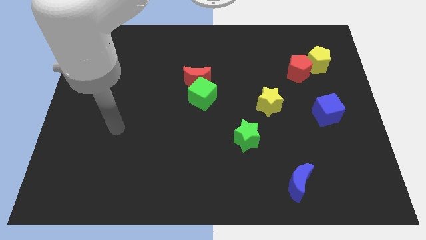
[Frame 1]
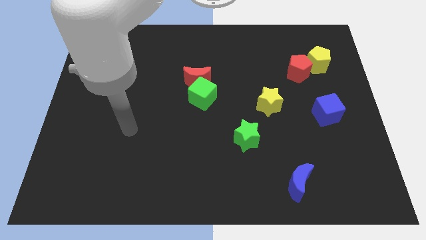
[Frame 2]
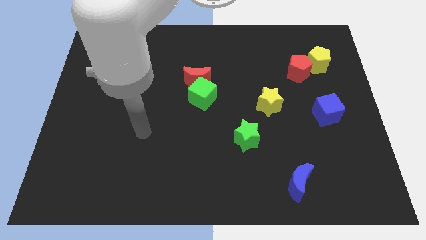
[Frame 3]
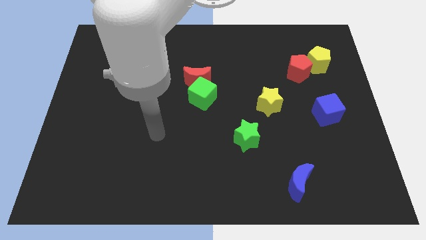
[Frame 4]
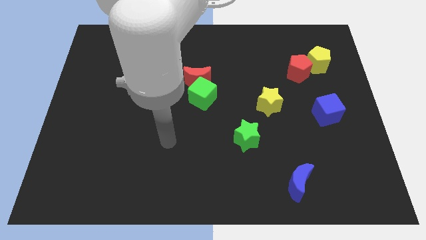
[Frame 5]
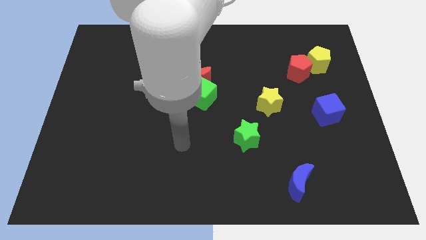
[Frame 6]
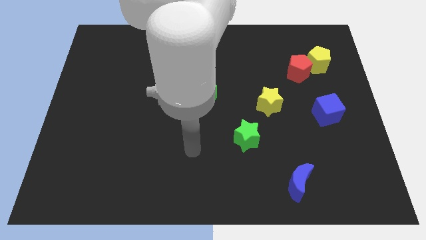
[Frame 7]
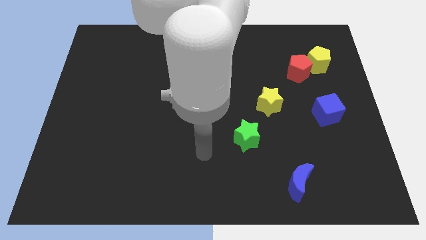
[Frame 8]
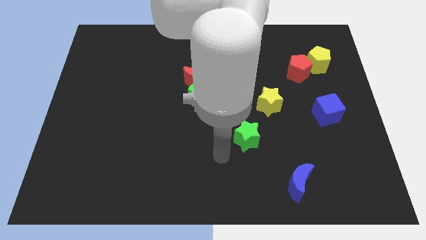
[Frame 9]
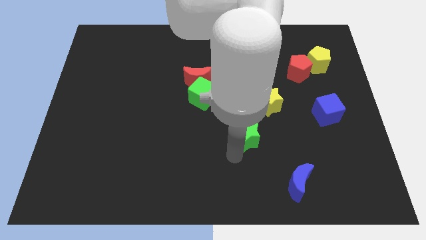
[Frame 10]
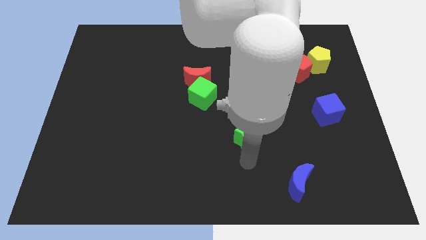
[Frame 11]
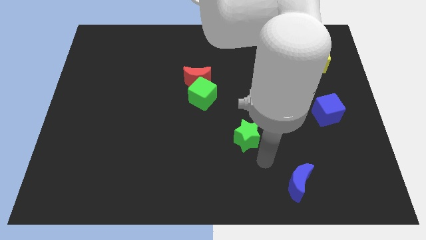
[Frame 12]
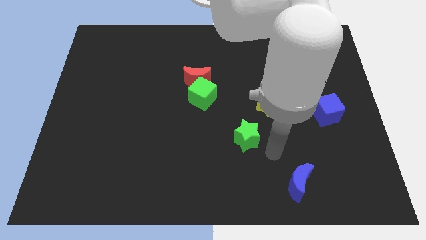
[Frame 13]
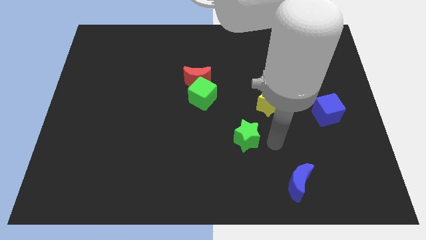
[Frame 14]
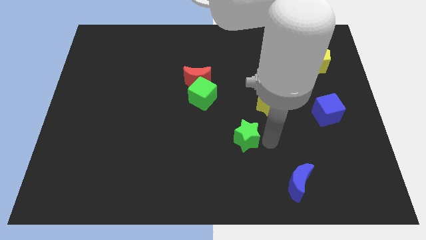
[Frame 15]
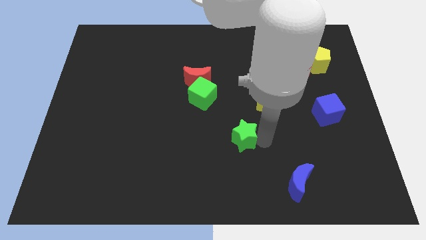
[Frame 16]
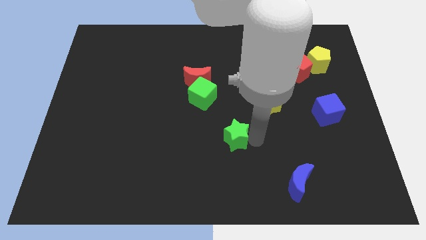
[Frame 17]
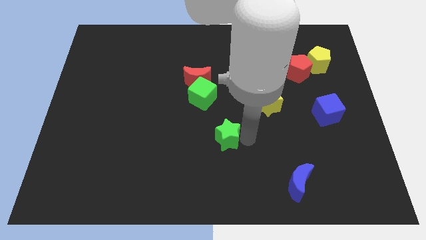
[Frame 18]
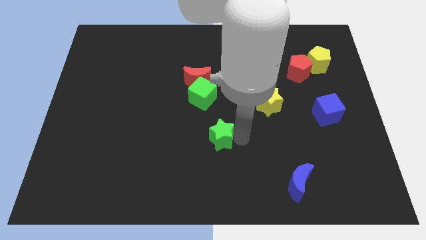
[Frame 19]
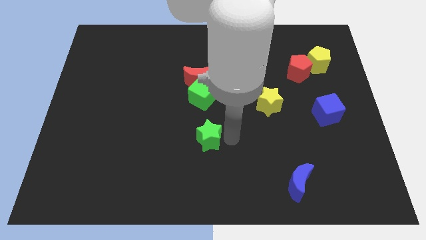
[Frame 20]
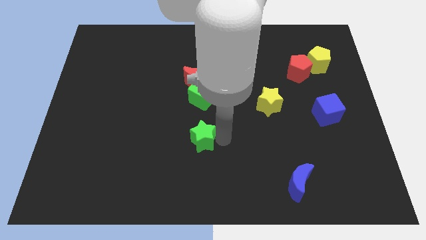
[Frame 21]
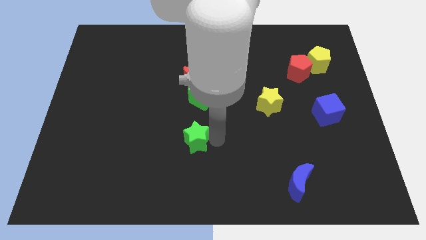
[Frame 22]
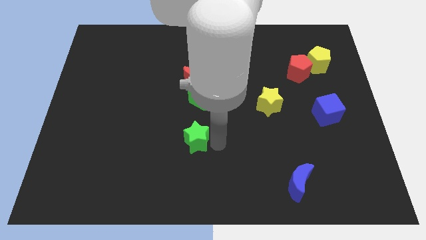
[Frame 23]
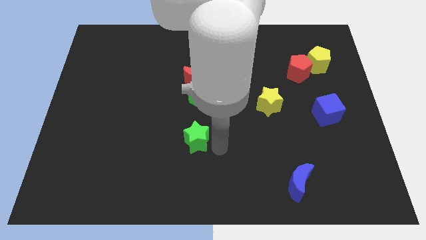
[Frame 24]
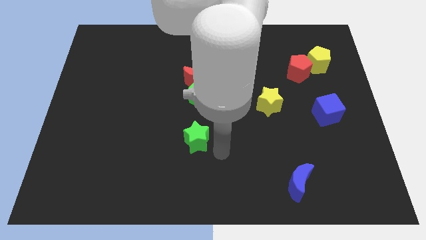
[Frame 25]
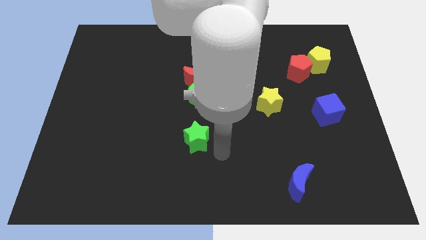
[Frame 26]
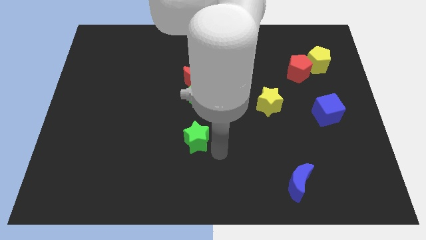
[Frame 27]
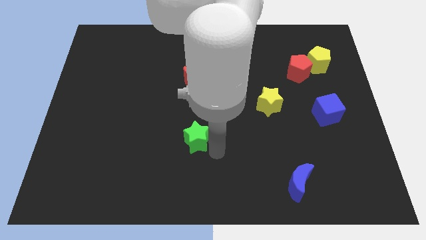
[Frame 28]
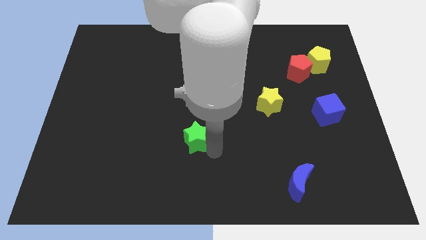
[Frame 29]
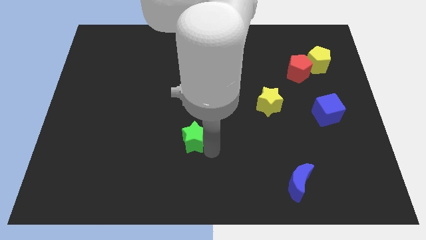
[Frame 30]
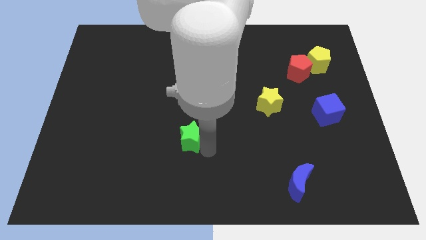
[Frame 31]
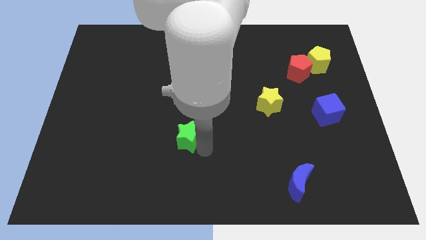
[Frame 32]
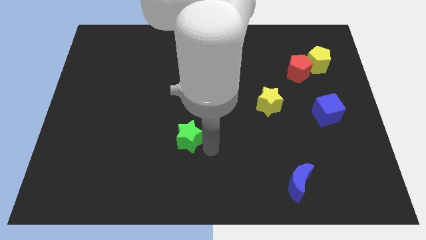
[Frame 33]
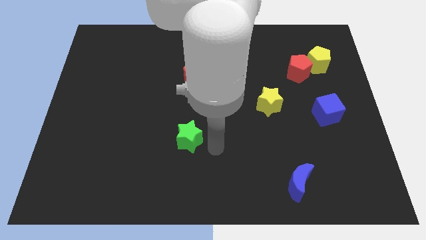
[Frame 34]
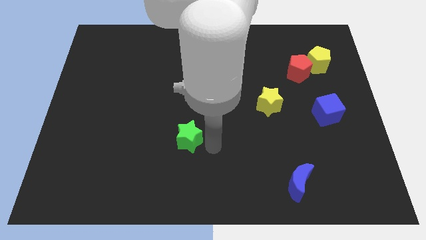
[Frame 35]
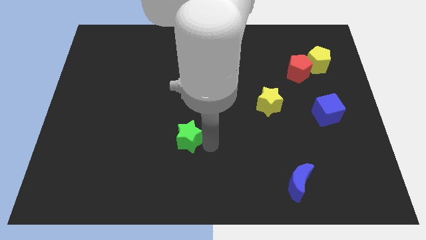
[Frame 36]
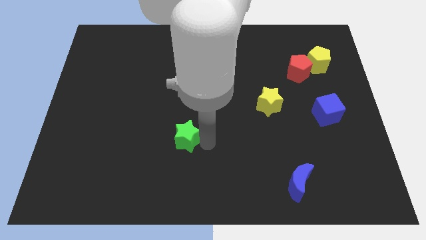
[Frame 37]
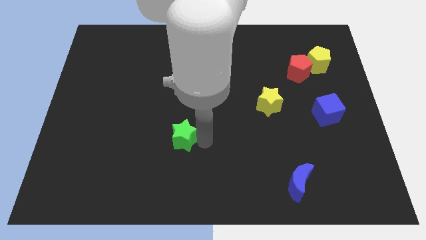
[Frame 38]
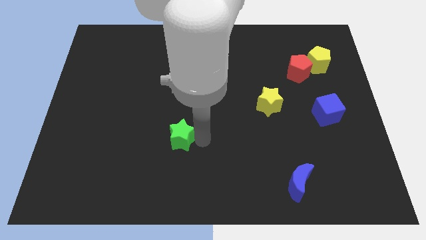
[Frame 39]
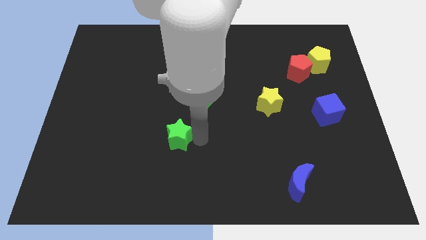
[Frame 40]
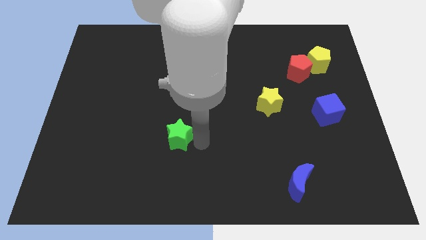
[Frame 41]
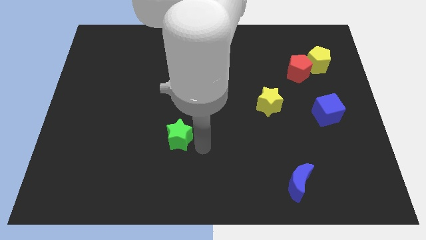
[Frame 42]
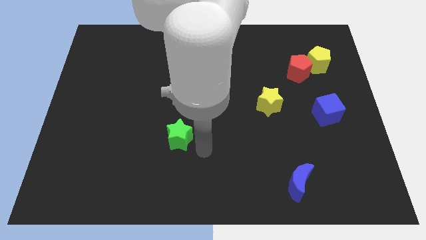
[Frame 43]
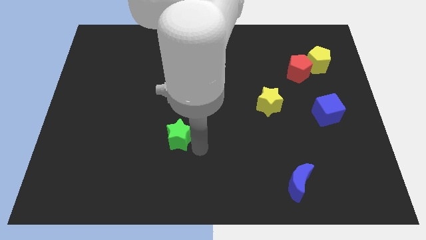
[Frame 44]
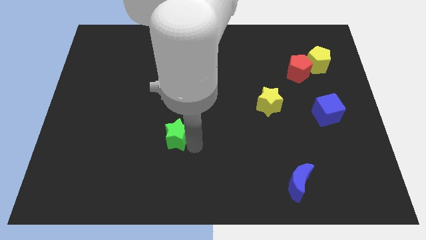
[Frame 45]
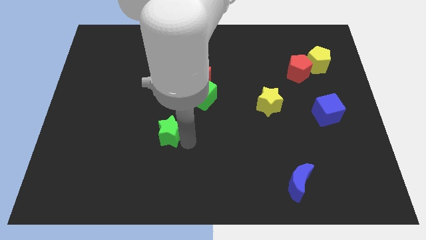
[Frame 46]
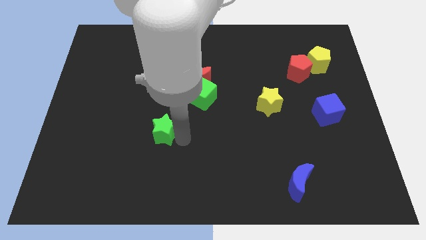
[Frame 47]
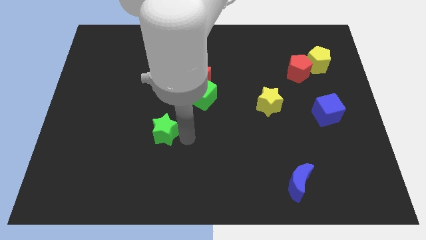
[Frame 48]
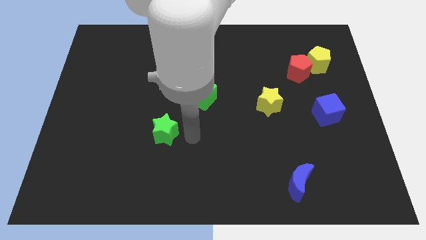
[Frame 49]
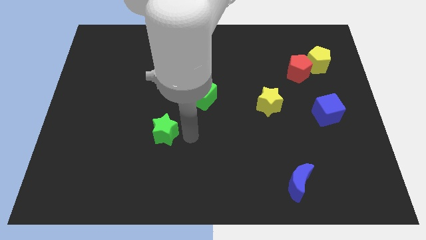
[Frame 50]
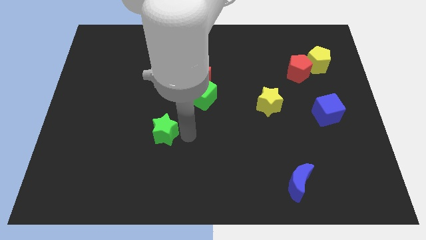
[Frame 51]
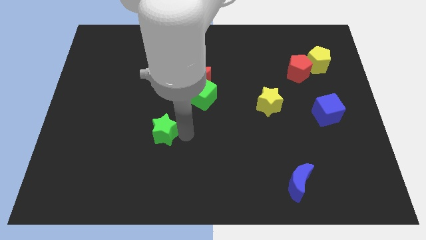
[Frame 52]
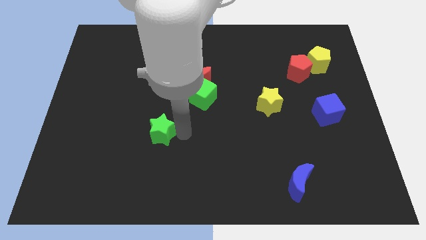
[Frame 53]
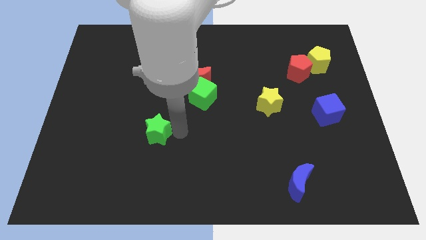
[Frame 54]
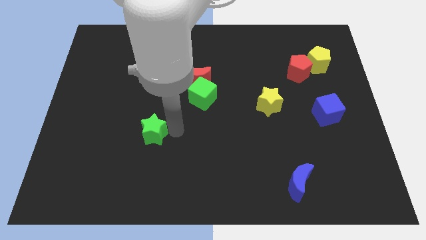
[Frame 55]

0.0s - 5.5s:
push the green star left

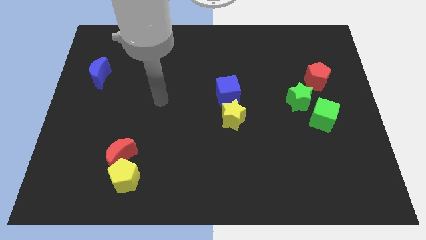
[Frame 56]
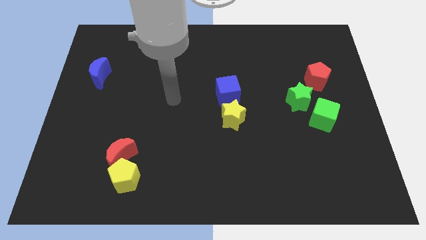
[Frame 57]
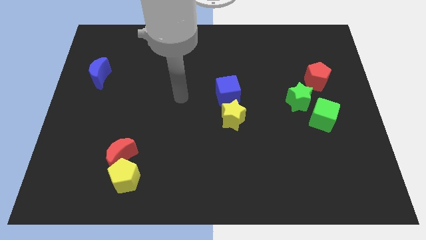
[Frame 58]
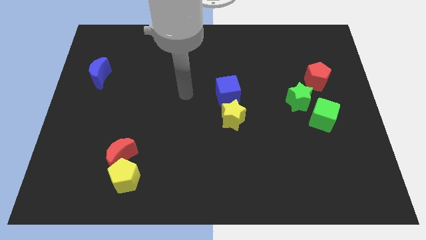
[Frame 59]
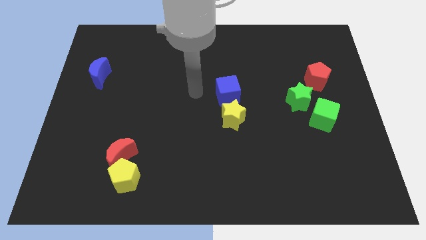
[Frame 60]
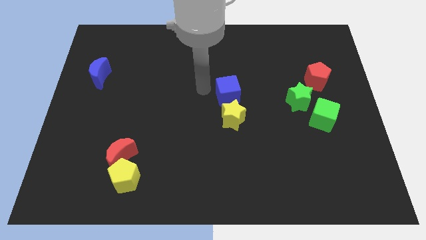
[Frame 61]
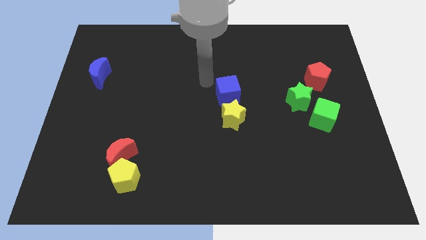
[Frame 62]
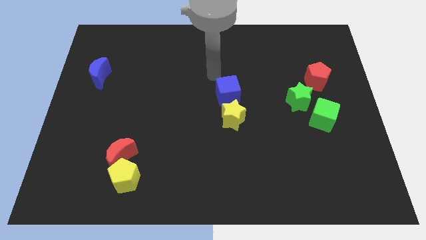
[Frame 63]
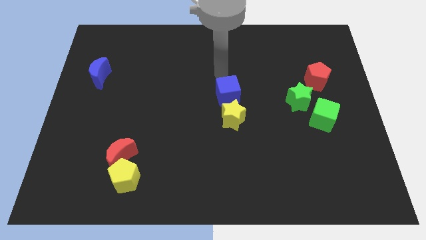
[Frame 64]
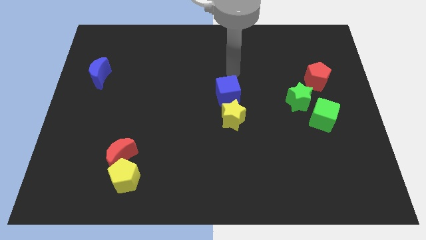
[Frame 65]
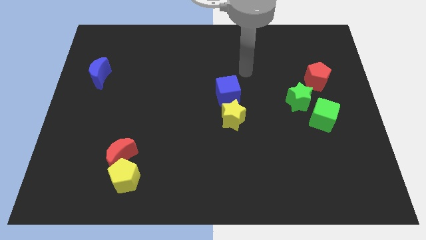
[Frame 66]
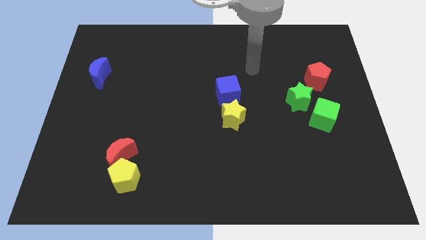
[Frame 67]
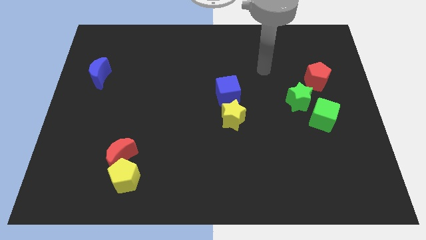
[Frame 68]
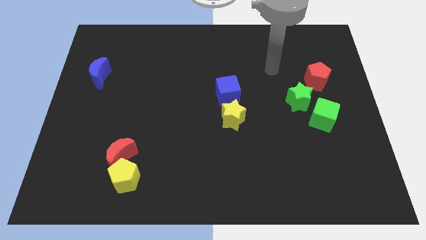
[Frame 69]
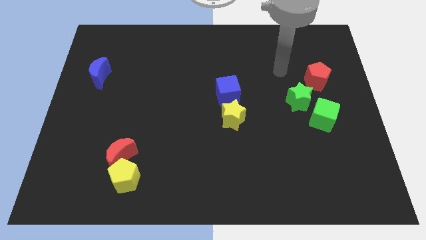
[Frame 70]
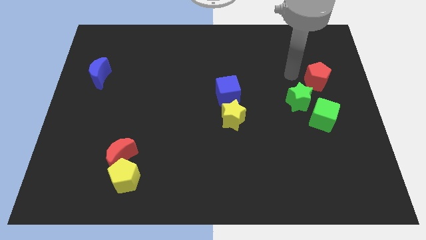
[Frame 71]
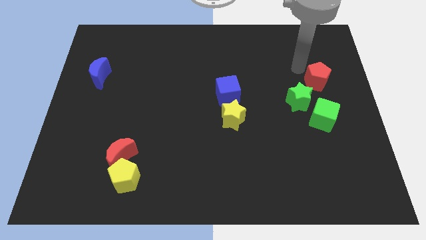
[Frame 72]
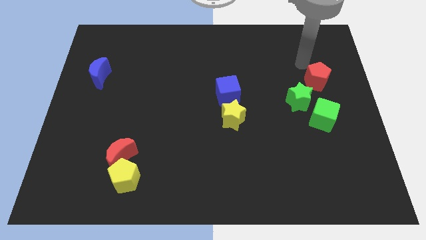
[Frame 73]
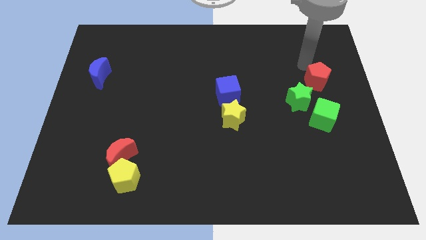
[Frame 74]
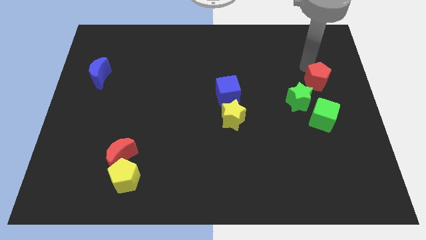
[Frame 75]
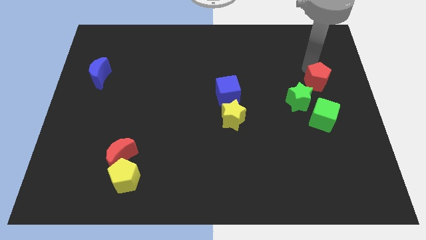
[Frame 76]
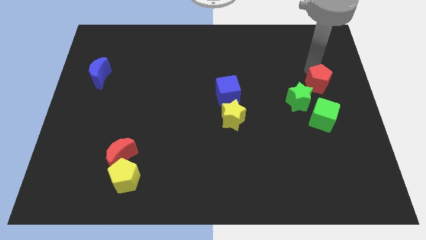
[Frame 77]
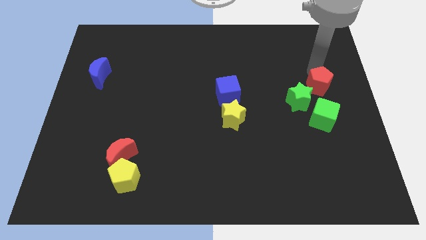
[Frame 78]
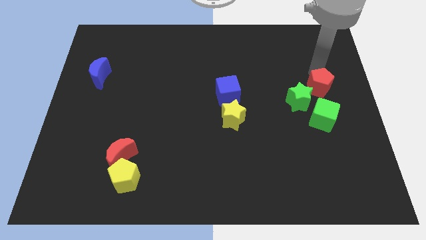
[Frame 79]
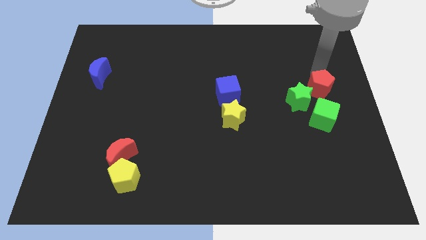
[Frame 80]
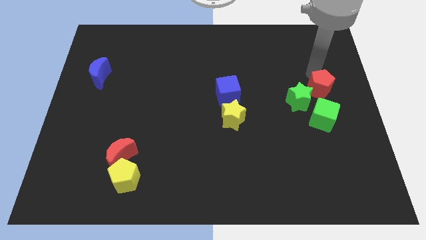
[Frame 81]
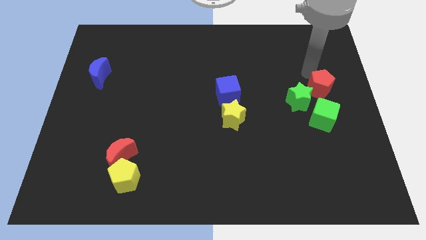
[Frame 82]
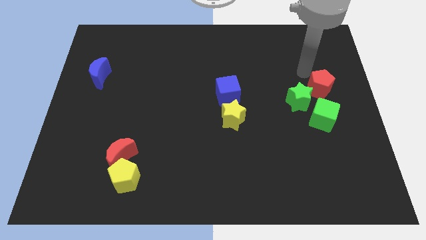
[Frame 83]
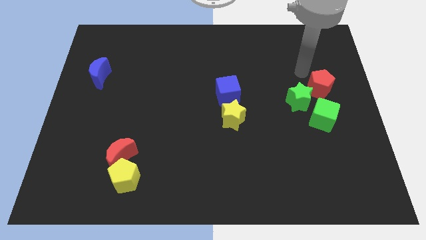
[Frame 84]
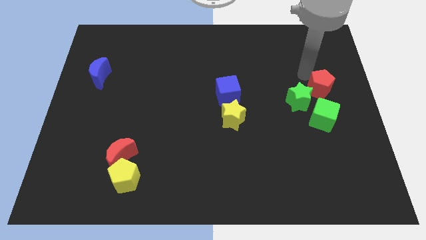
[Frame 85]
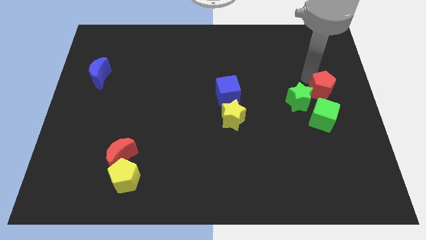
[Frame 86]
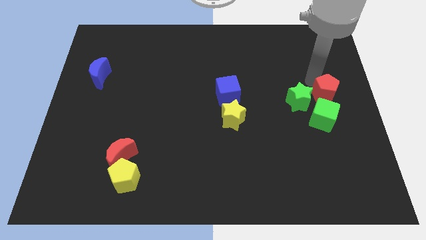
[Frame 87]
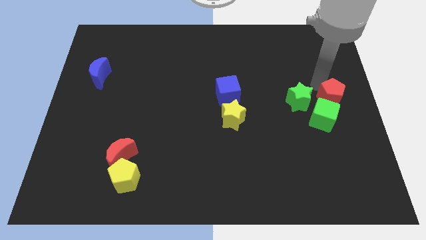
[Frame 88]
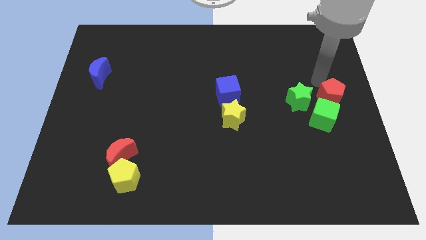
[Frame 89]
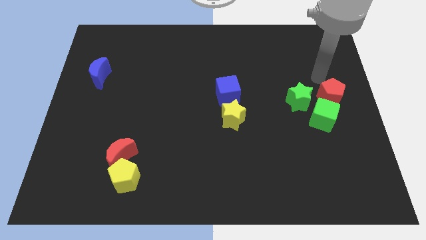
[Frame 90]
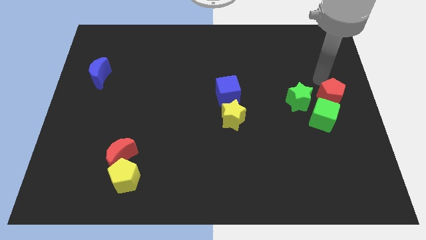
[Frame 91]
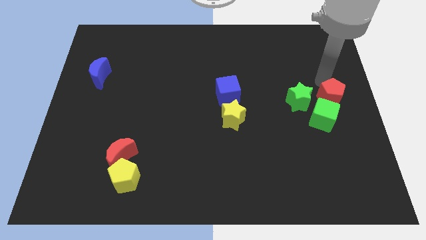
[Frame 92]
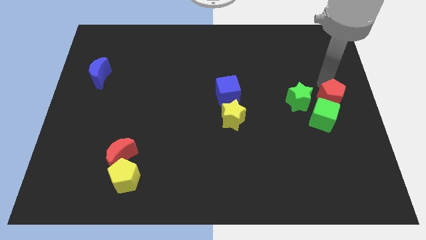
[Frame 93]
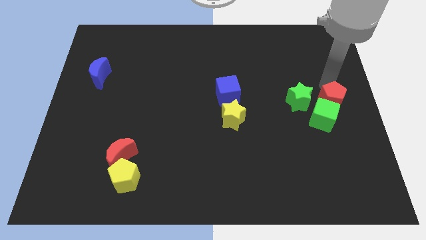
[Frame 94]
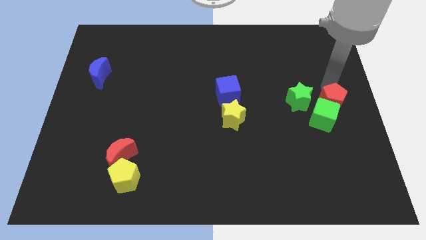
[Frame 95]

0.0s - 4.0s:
slightly move the red pentagon down
